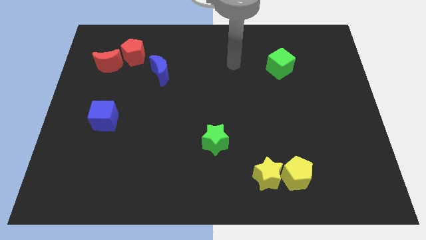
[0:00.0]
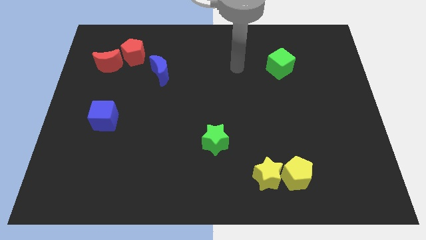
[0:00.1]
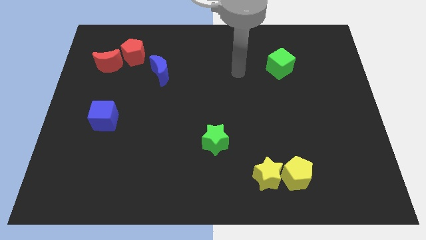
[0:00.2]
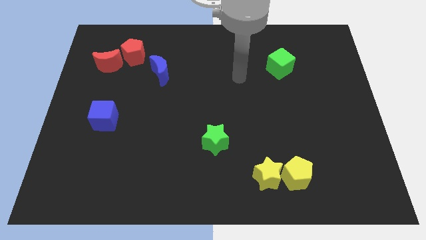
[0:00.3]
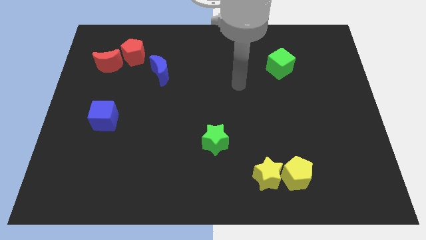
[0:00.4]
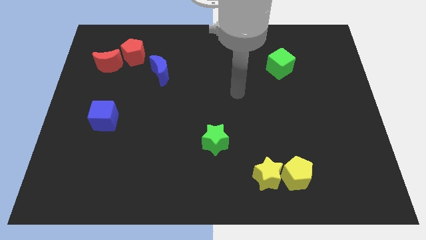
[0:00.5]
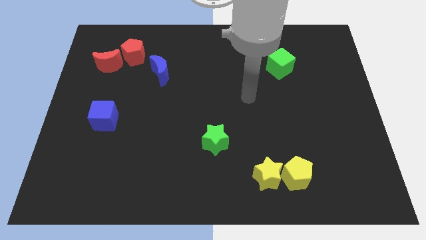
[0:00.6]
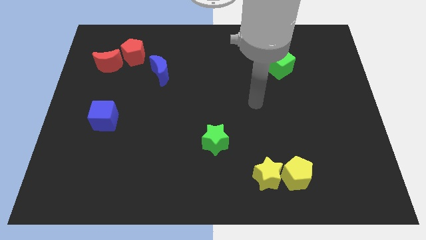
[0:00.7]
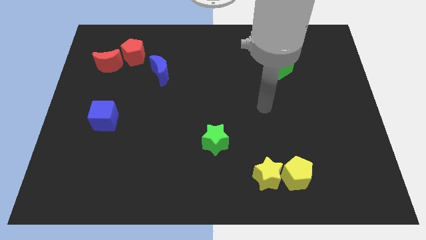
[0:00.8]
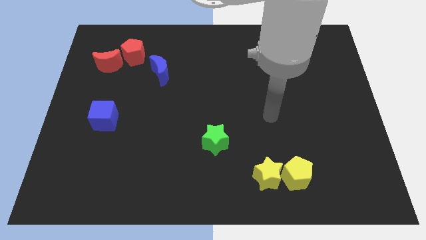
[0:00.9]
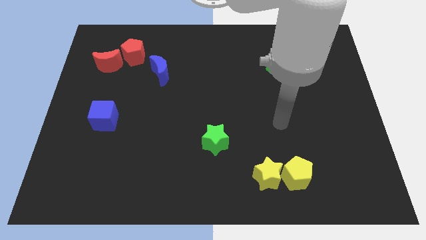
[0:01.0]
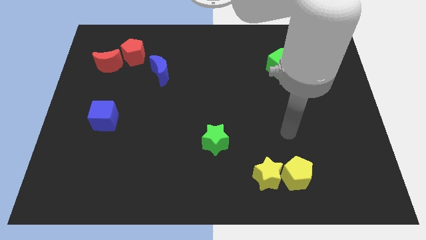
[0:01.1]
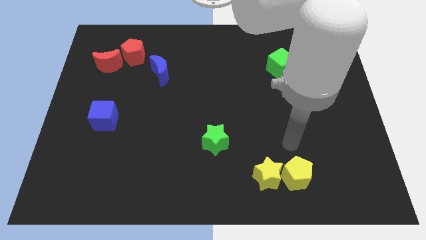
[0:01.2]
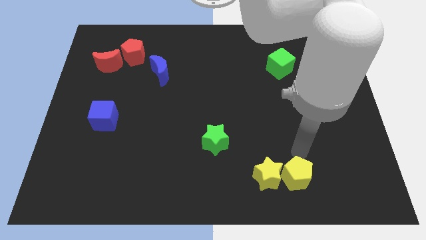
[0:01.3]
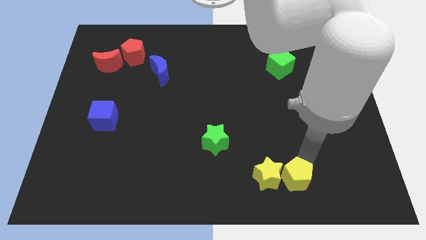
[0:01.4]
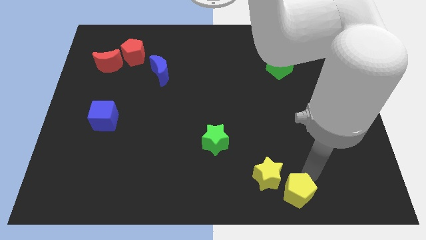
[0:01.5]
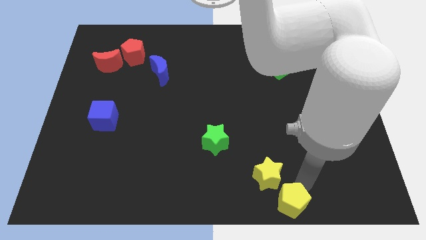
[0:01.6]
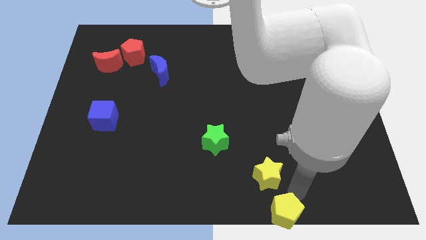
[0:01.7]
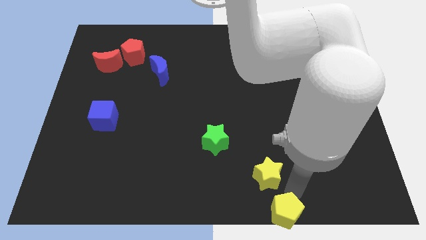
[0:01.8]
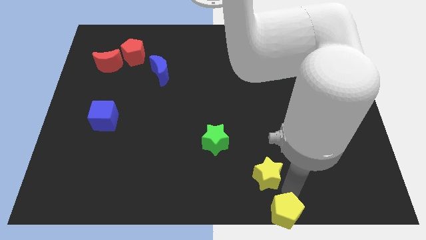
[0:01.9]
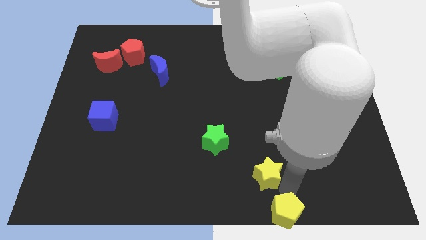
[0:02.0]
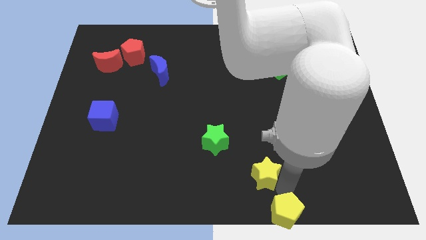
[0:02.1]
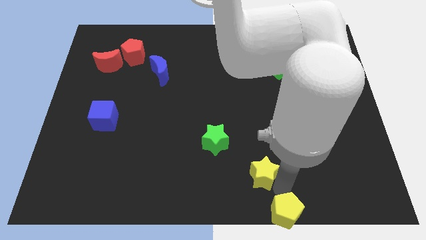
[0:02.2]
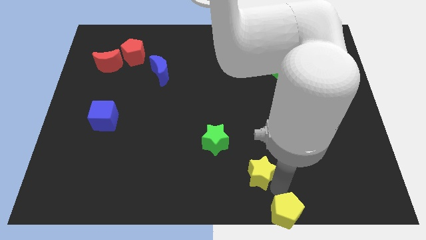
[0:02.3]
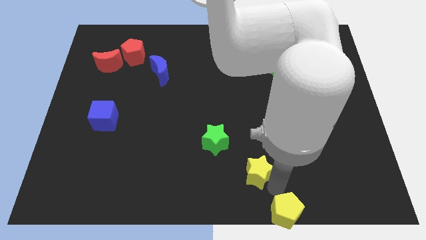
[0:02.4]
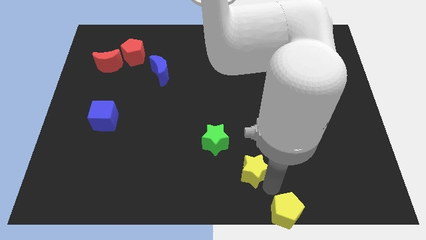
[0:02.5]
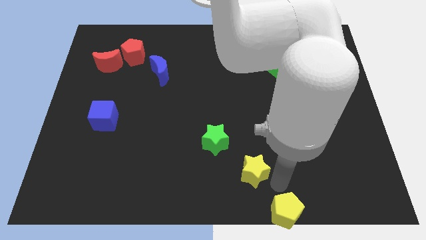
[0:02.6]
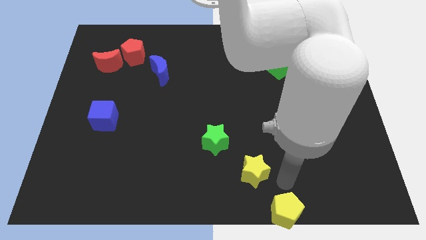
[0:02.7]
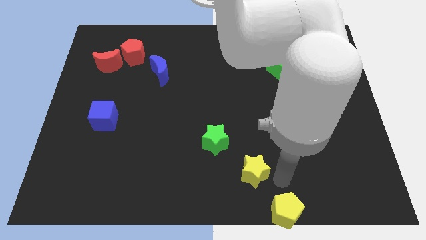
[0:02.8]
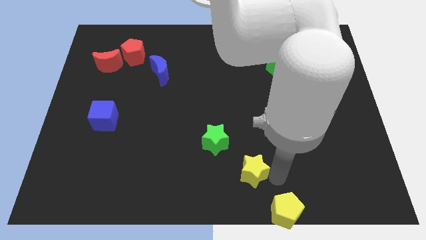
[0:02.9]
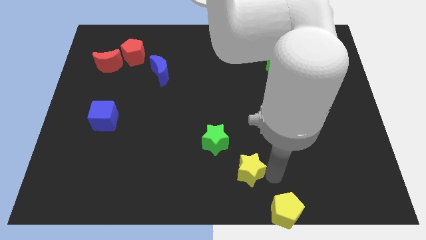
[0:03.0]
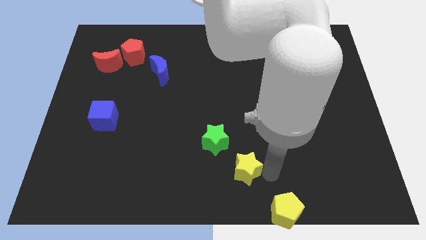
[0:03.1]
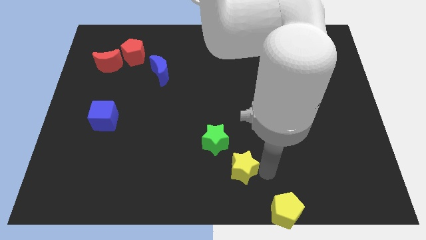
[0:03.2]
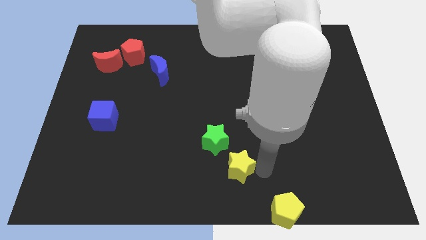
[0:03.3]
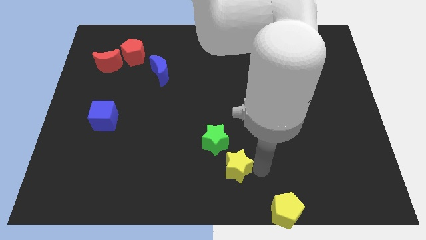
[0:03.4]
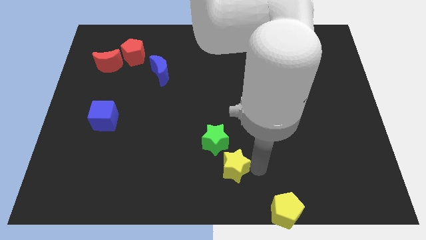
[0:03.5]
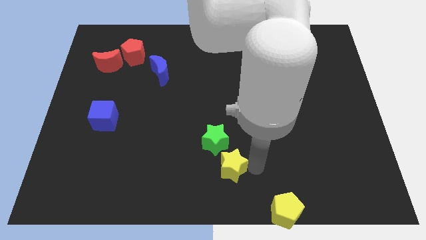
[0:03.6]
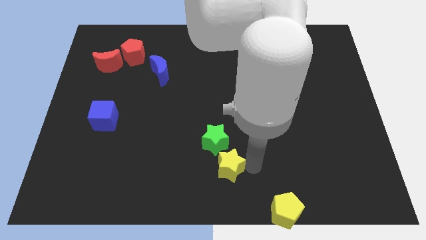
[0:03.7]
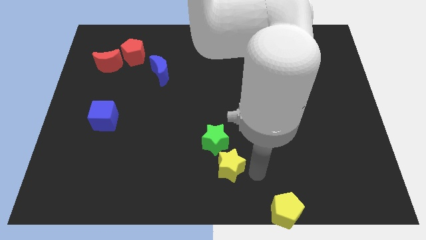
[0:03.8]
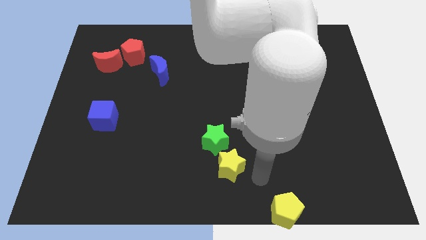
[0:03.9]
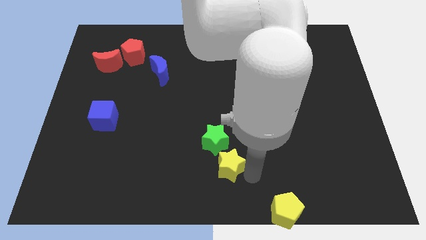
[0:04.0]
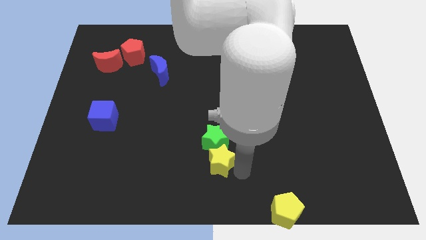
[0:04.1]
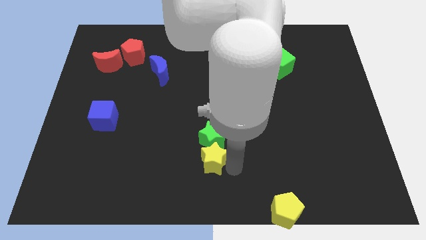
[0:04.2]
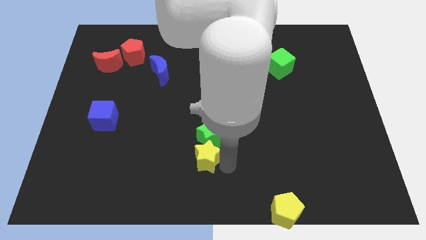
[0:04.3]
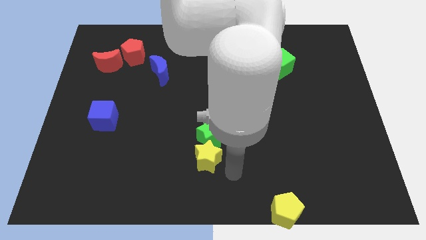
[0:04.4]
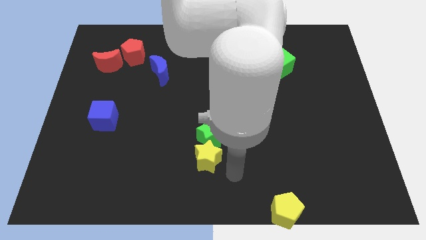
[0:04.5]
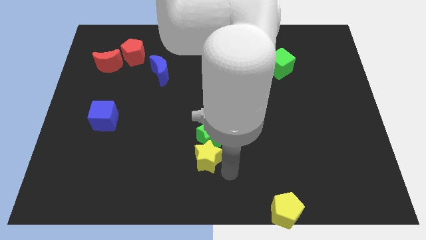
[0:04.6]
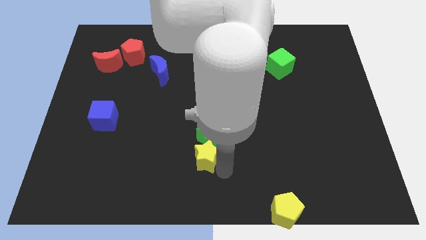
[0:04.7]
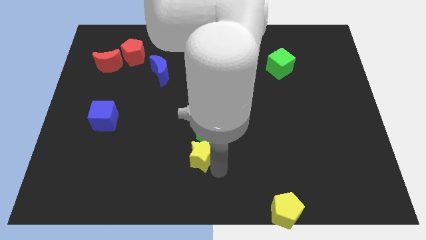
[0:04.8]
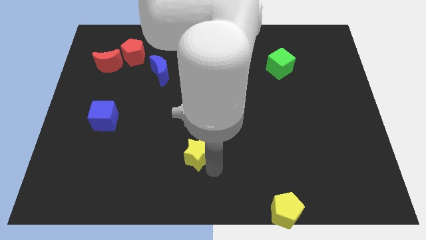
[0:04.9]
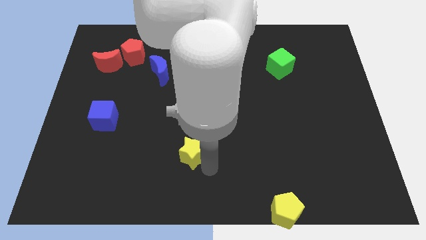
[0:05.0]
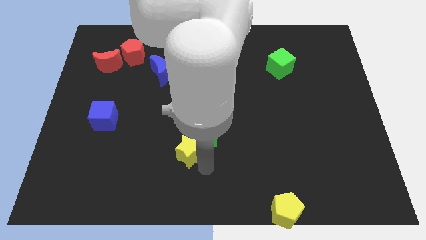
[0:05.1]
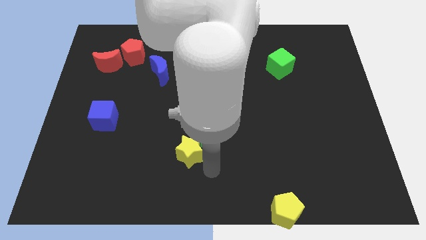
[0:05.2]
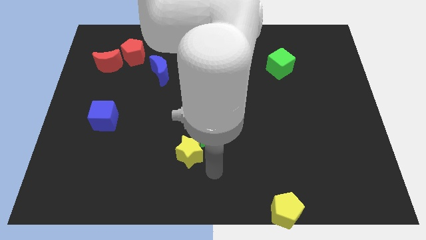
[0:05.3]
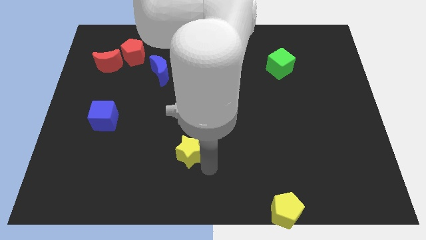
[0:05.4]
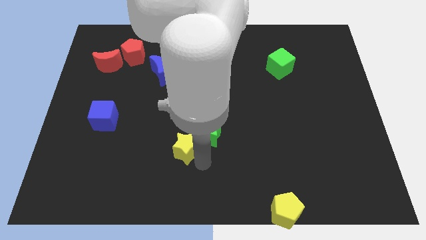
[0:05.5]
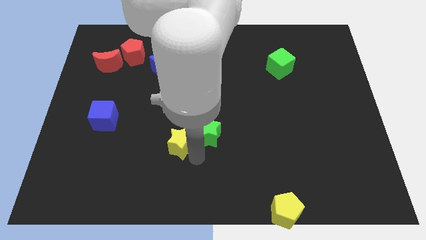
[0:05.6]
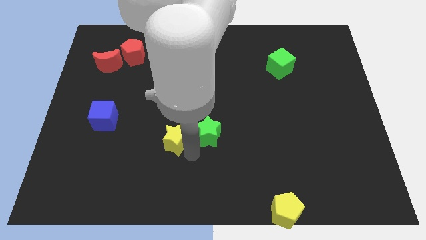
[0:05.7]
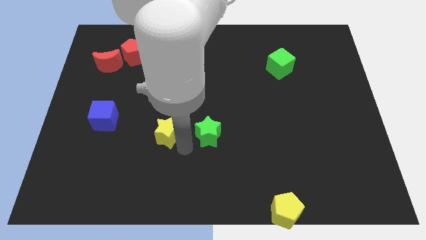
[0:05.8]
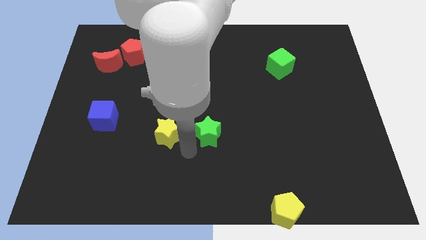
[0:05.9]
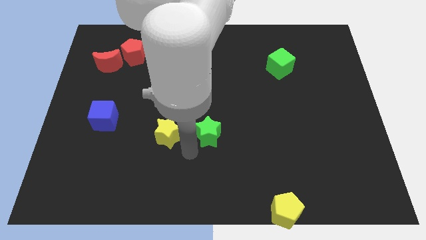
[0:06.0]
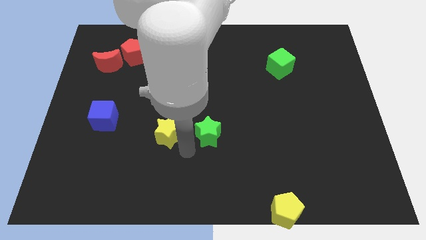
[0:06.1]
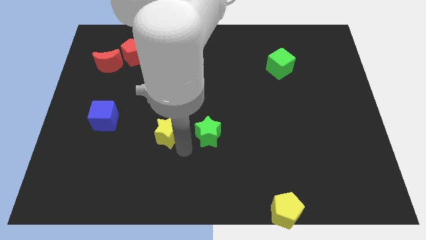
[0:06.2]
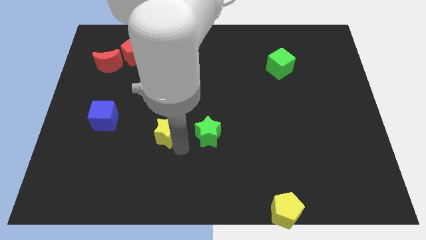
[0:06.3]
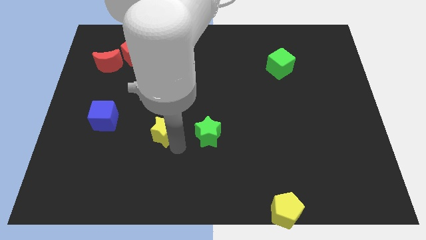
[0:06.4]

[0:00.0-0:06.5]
push the yellow star to the right side of the blue cube

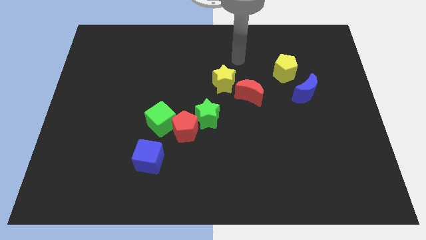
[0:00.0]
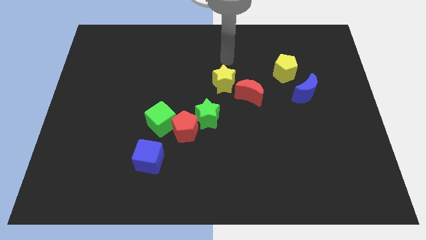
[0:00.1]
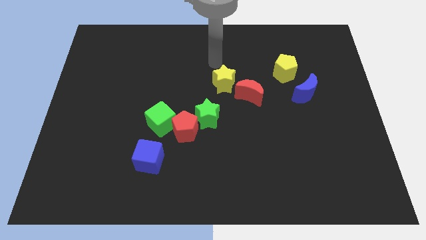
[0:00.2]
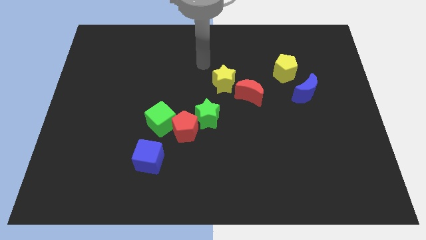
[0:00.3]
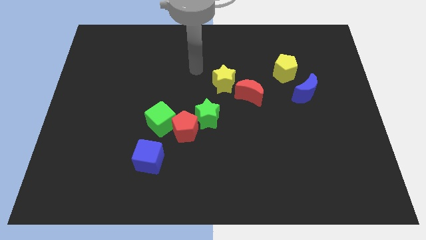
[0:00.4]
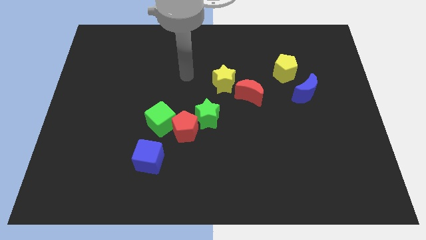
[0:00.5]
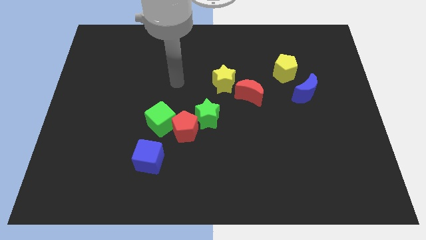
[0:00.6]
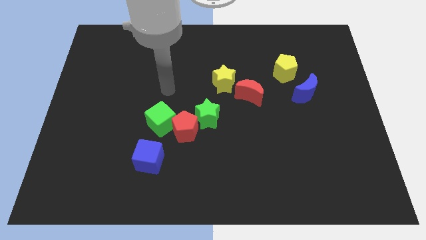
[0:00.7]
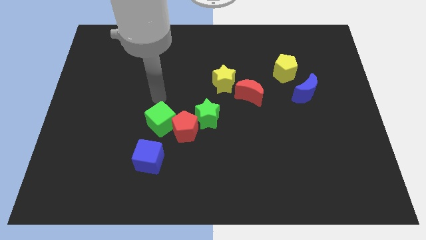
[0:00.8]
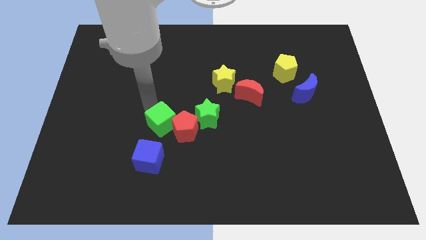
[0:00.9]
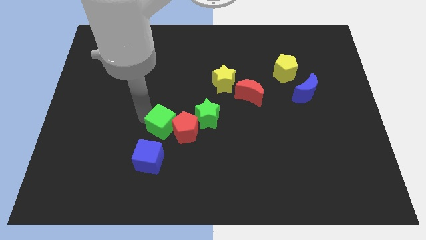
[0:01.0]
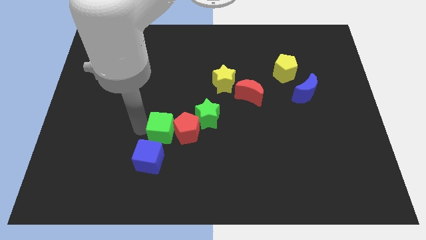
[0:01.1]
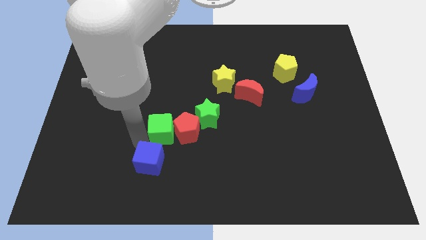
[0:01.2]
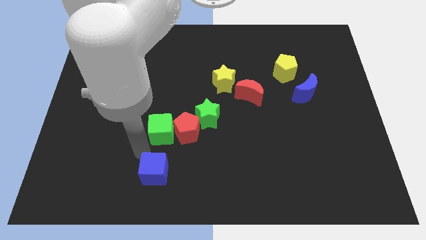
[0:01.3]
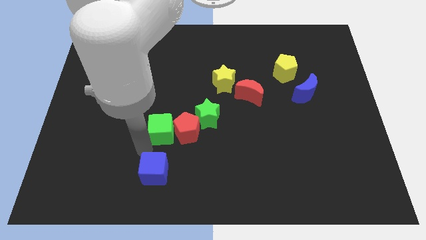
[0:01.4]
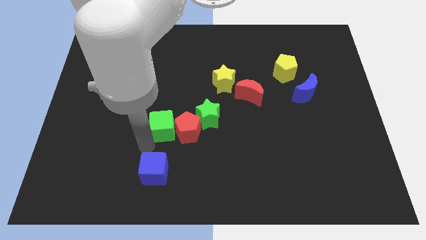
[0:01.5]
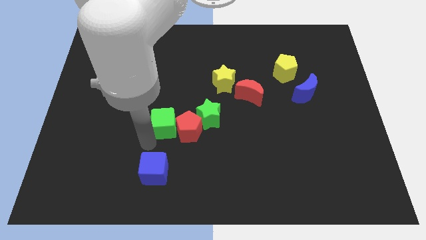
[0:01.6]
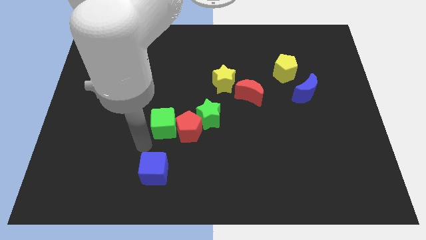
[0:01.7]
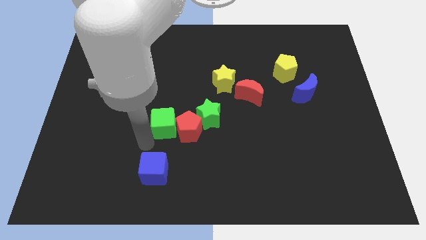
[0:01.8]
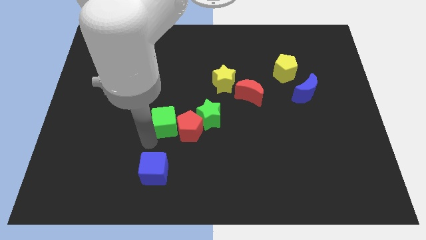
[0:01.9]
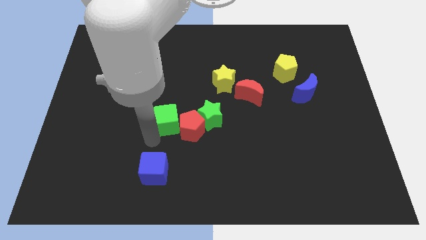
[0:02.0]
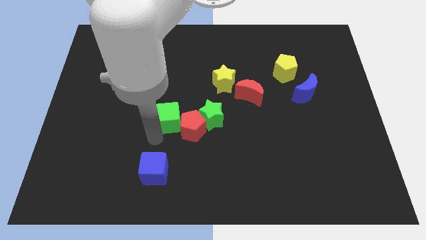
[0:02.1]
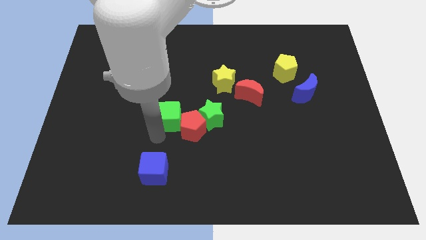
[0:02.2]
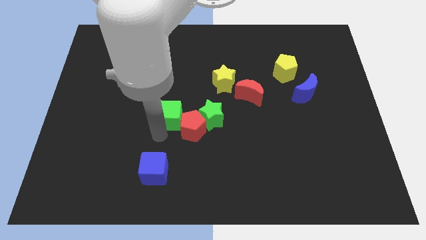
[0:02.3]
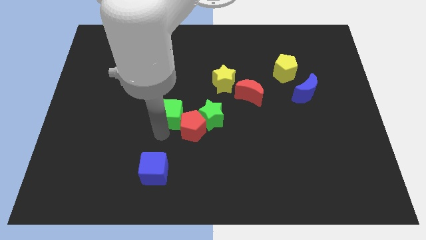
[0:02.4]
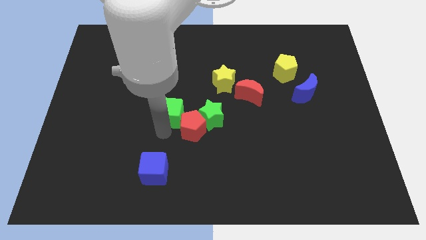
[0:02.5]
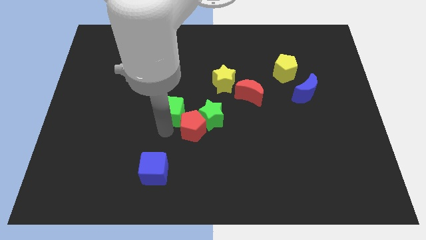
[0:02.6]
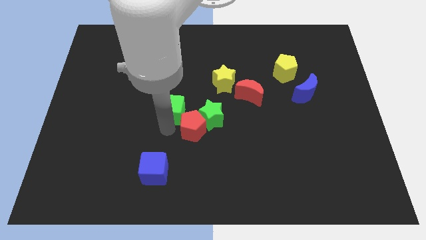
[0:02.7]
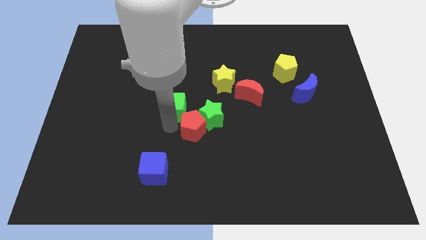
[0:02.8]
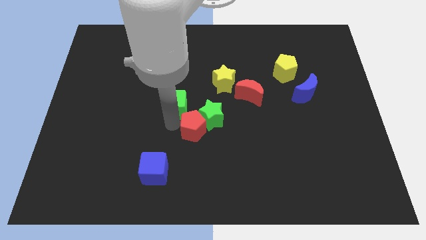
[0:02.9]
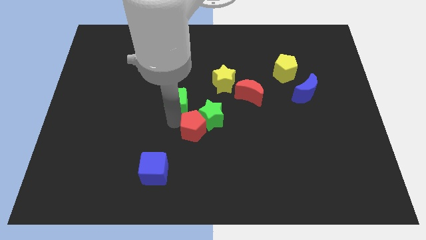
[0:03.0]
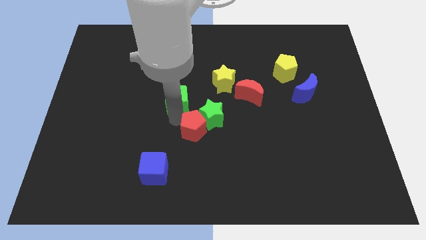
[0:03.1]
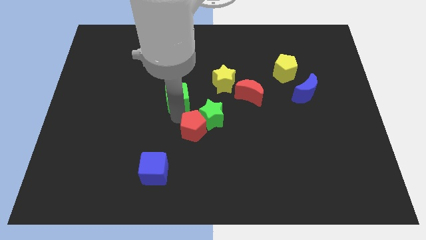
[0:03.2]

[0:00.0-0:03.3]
slide the green cube to the bottom left side of the yellow star
